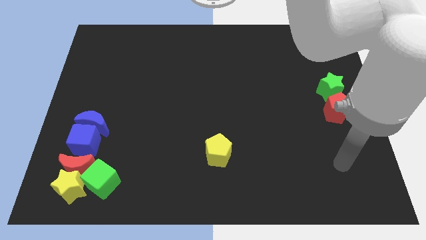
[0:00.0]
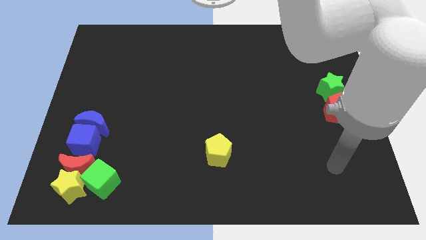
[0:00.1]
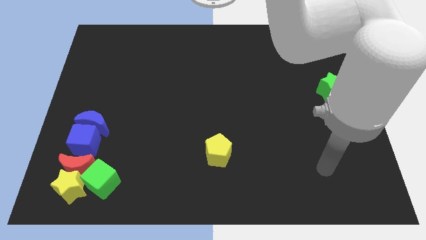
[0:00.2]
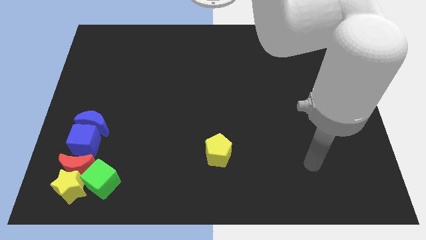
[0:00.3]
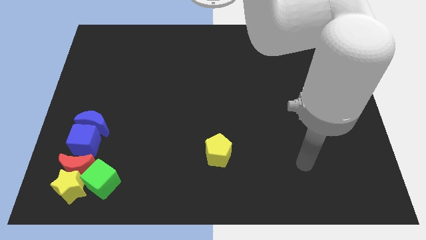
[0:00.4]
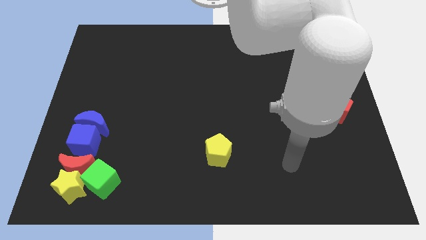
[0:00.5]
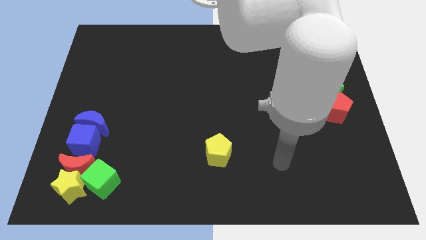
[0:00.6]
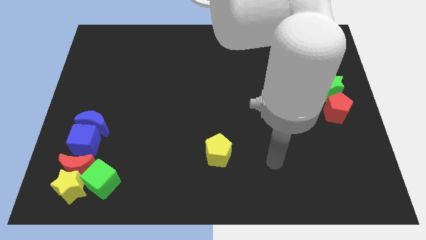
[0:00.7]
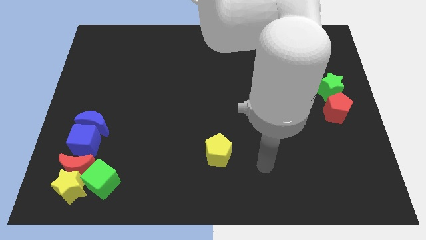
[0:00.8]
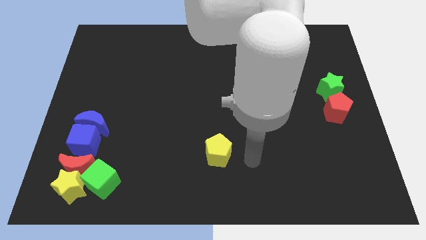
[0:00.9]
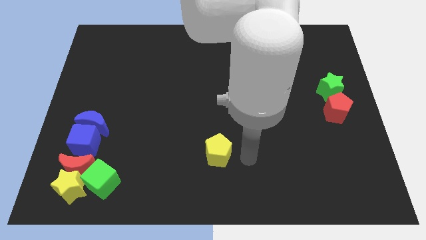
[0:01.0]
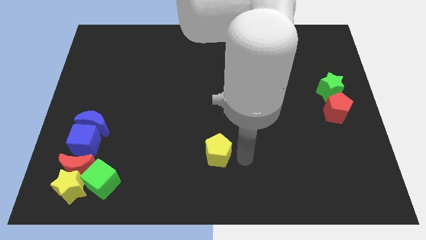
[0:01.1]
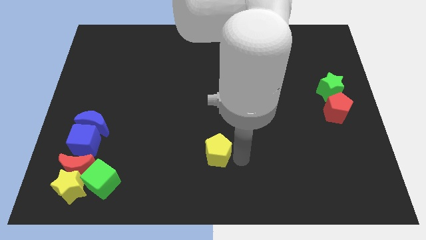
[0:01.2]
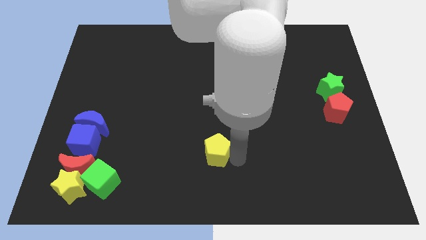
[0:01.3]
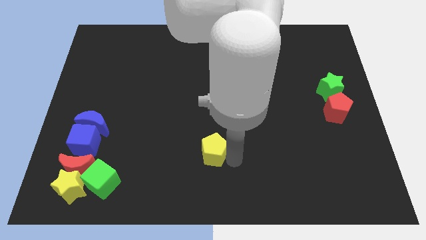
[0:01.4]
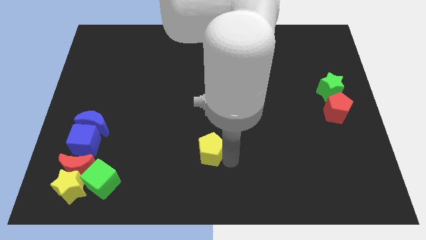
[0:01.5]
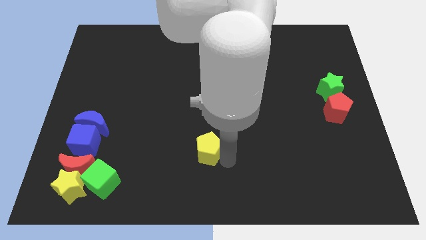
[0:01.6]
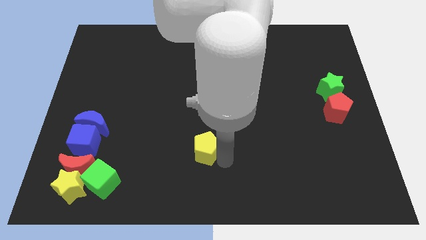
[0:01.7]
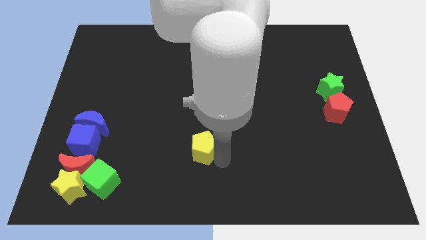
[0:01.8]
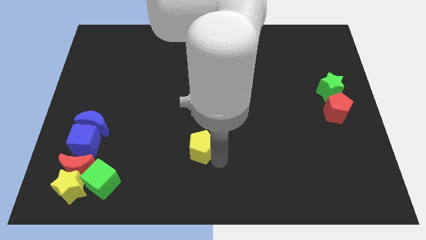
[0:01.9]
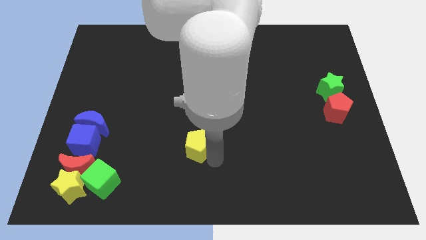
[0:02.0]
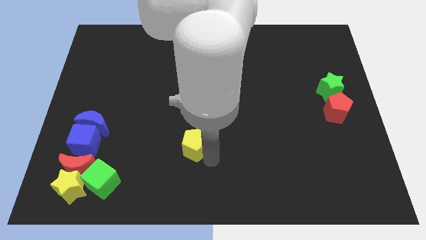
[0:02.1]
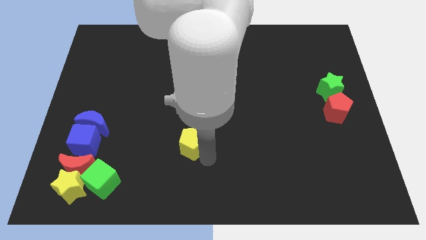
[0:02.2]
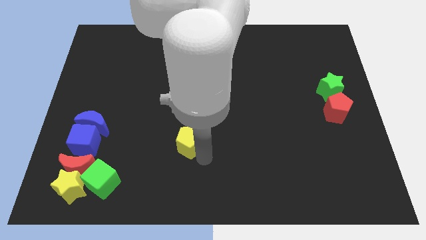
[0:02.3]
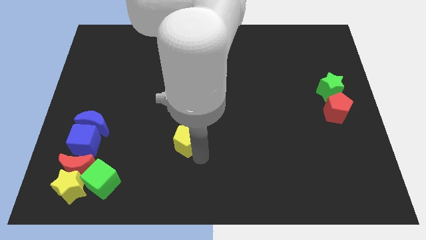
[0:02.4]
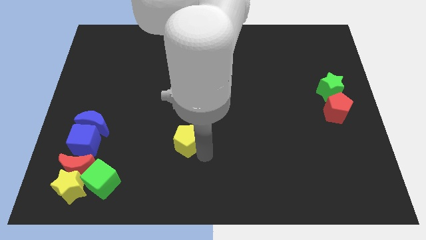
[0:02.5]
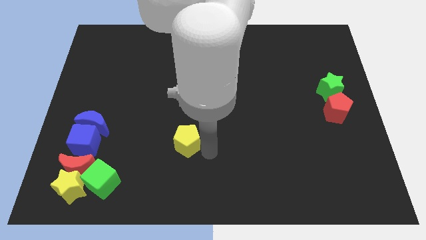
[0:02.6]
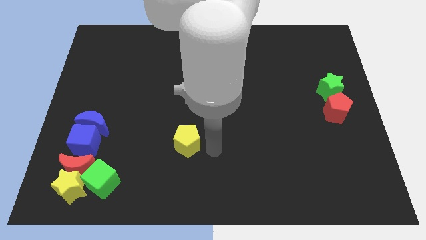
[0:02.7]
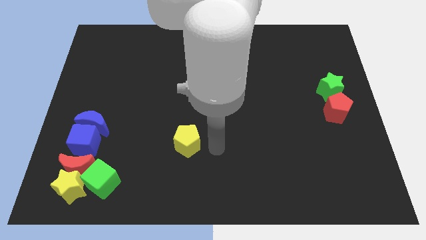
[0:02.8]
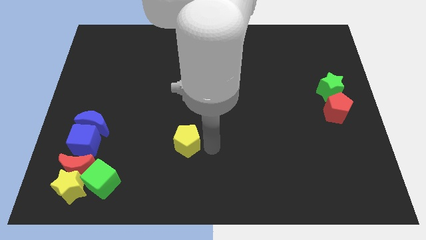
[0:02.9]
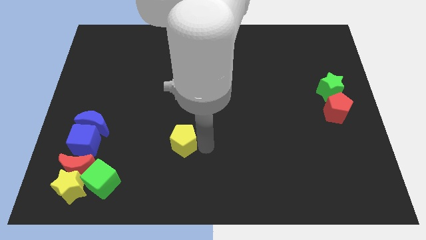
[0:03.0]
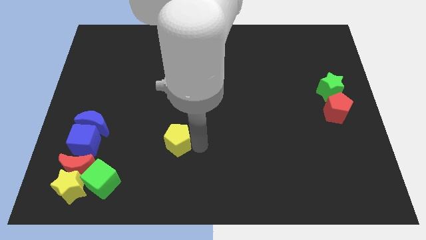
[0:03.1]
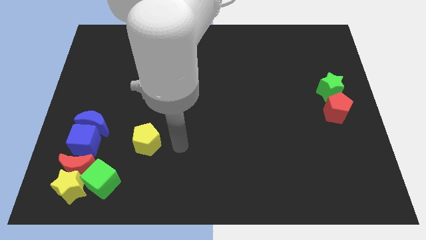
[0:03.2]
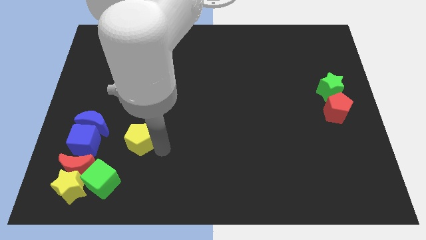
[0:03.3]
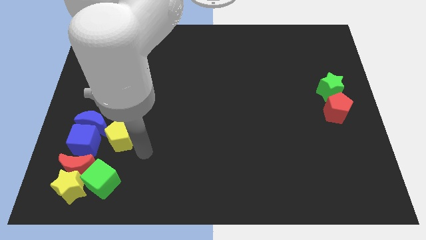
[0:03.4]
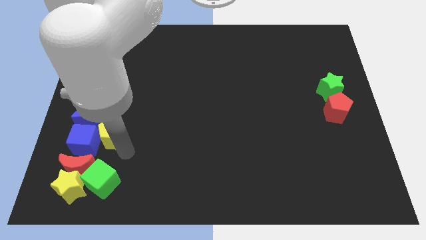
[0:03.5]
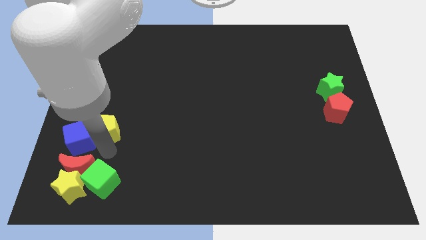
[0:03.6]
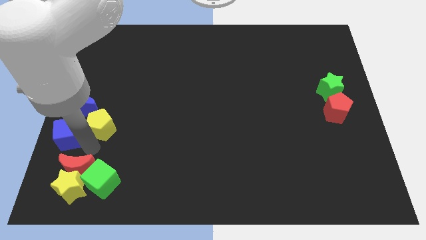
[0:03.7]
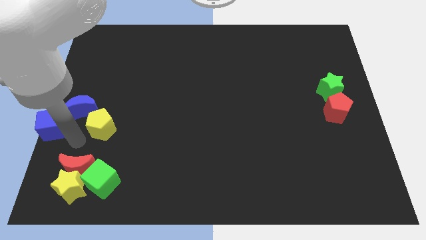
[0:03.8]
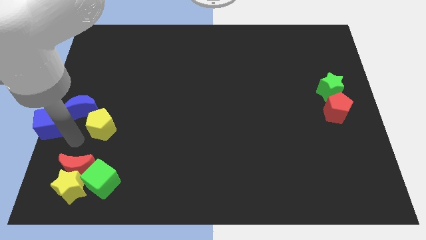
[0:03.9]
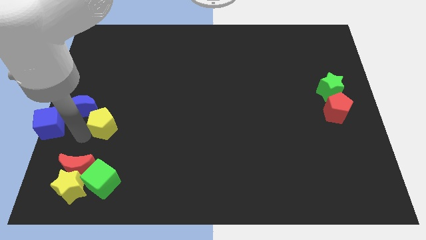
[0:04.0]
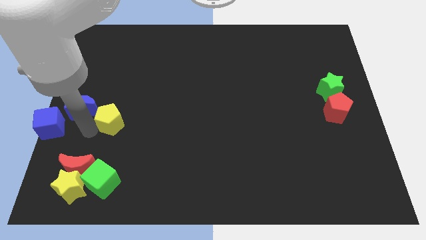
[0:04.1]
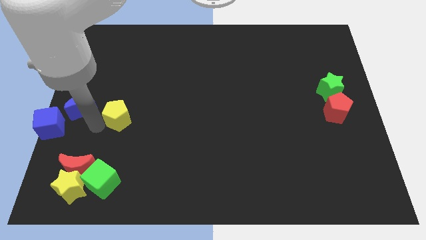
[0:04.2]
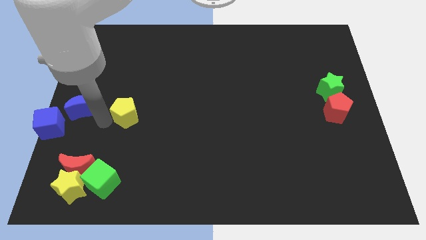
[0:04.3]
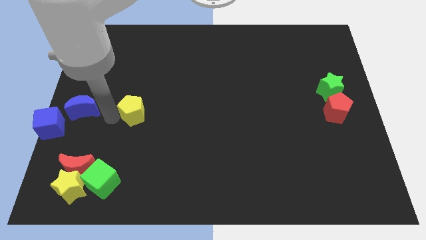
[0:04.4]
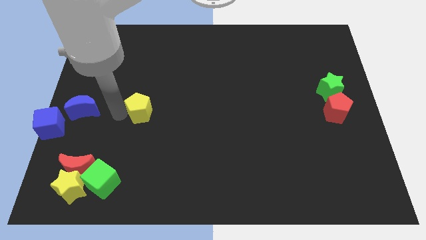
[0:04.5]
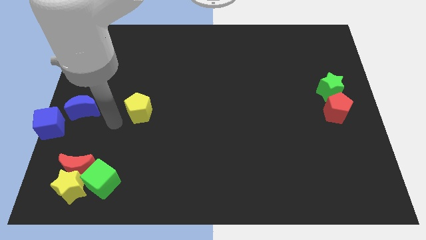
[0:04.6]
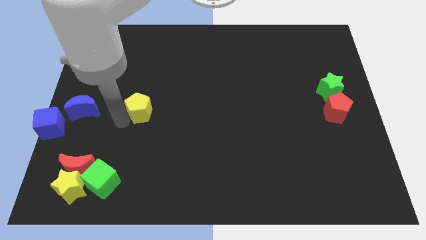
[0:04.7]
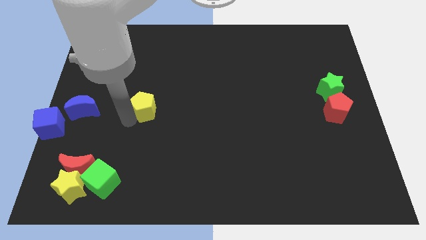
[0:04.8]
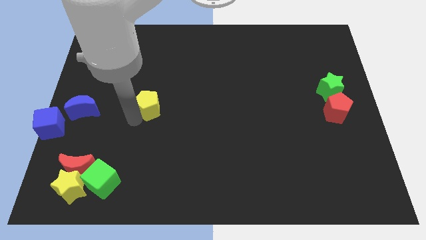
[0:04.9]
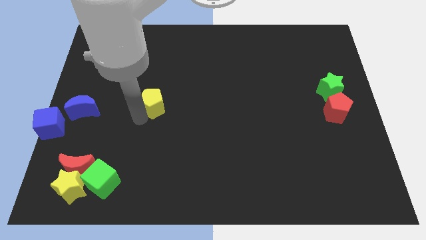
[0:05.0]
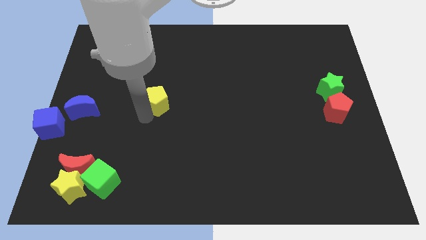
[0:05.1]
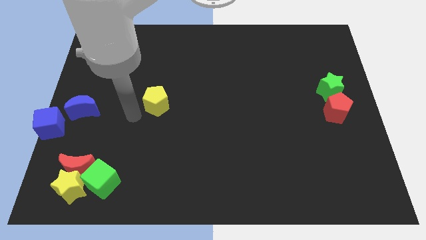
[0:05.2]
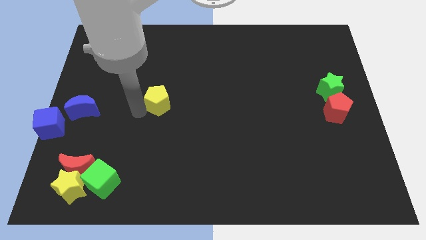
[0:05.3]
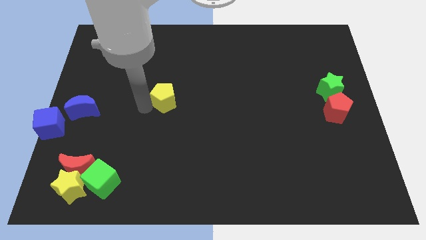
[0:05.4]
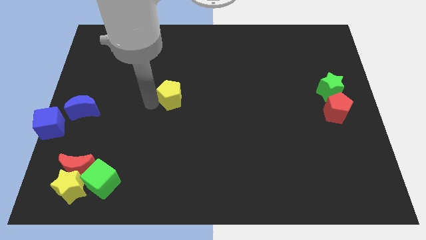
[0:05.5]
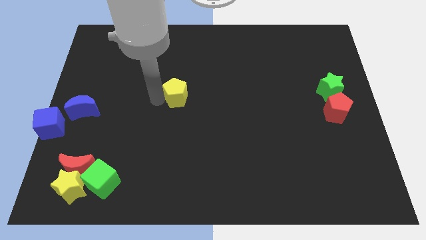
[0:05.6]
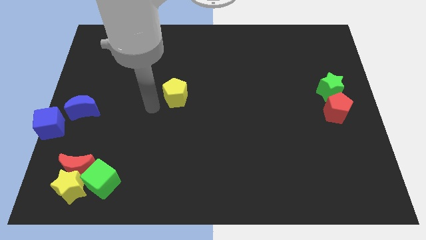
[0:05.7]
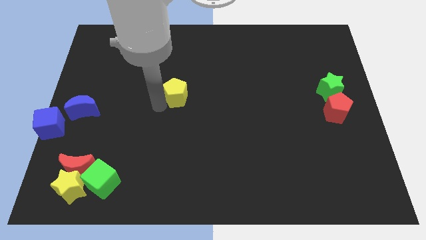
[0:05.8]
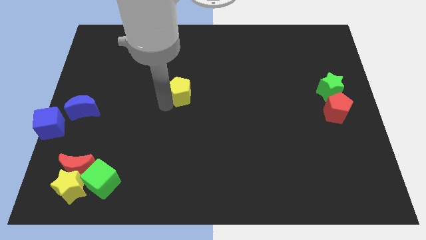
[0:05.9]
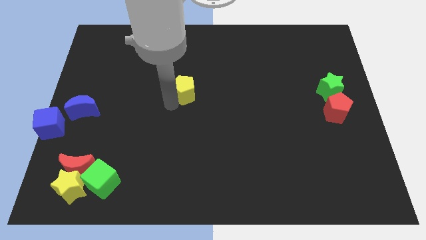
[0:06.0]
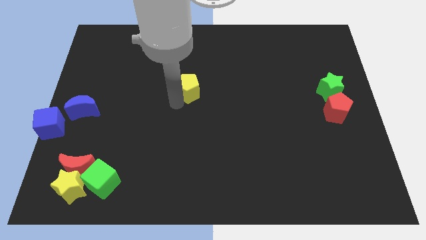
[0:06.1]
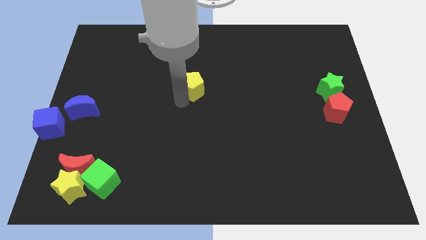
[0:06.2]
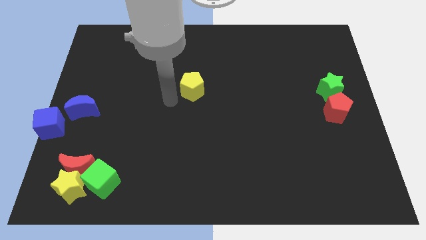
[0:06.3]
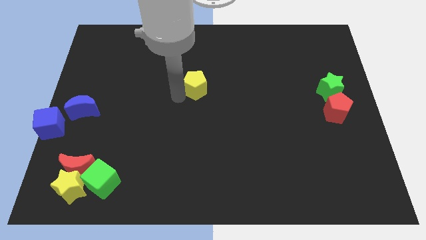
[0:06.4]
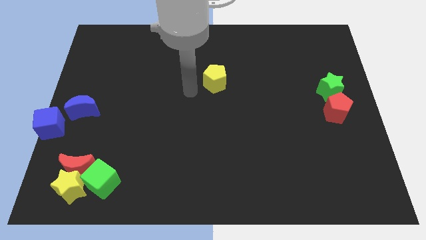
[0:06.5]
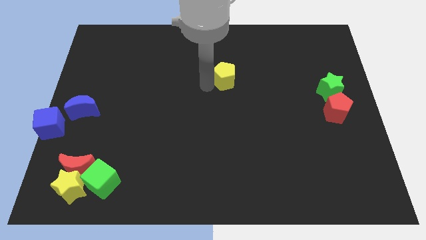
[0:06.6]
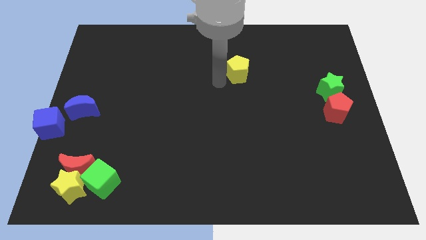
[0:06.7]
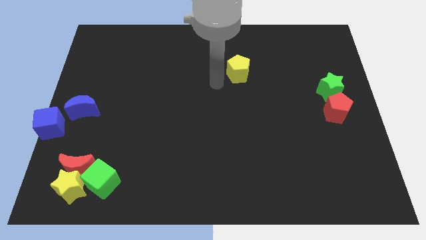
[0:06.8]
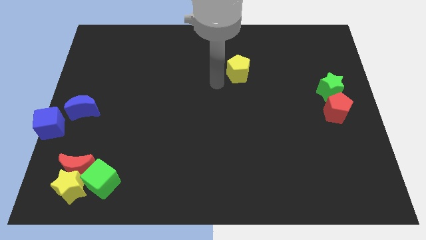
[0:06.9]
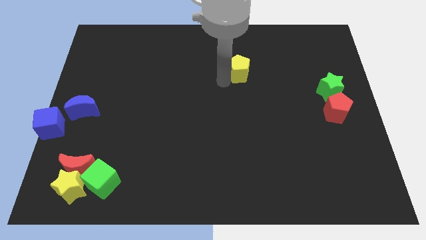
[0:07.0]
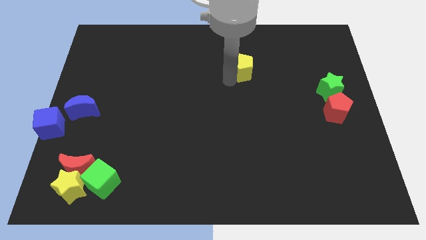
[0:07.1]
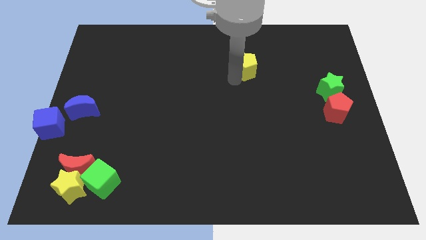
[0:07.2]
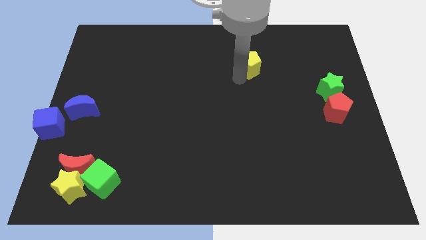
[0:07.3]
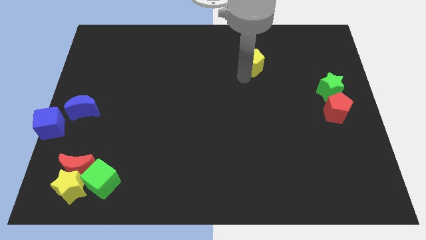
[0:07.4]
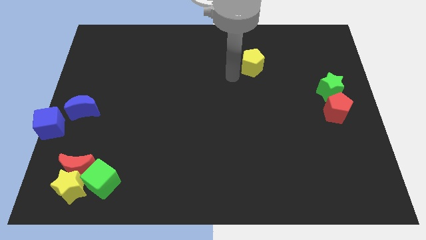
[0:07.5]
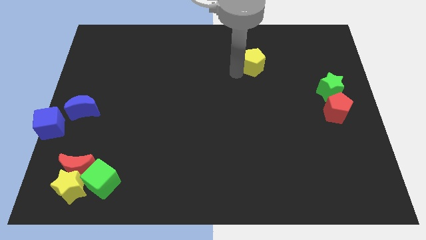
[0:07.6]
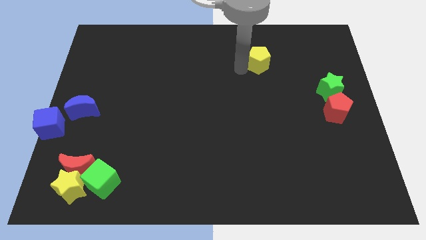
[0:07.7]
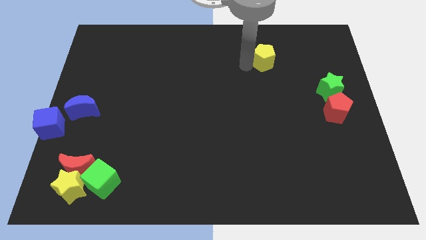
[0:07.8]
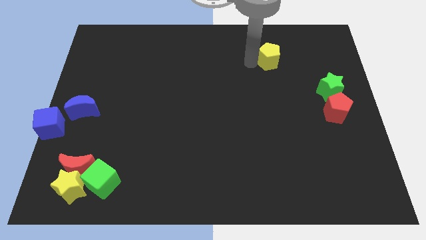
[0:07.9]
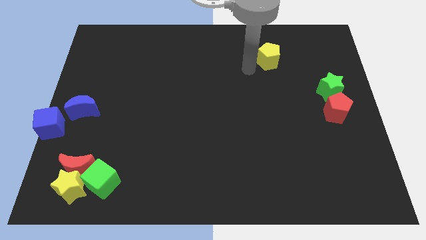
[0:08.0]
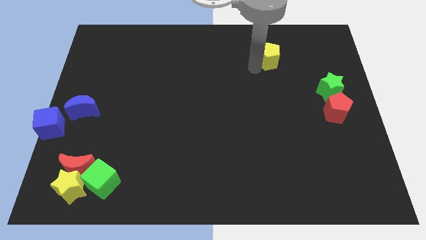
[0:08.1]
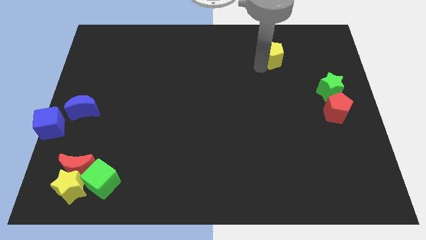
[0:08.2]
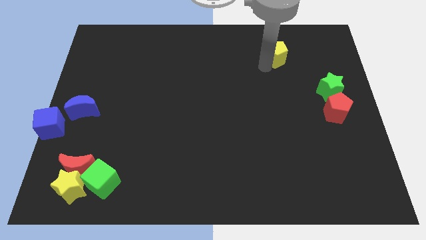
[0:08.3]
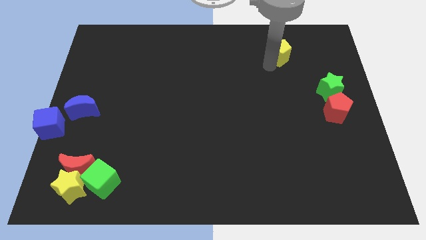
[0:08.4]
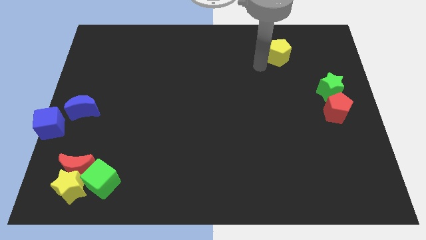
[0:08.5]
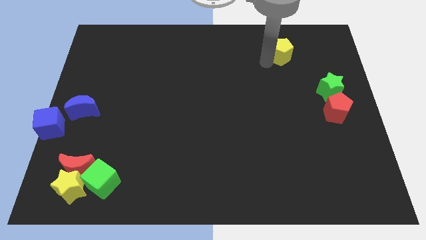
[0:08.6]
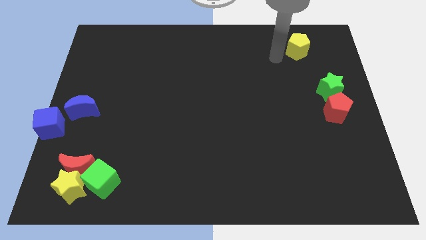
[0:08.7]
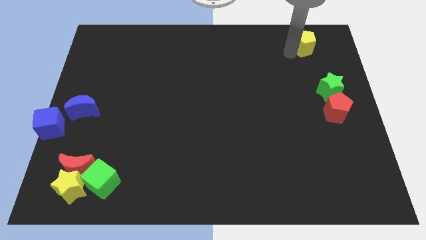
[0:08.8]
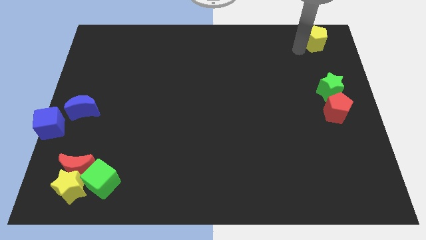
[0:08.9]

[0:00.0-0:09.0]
slide the yellow pentagon to the upper right corner
